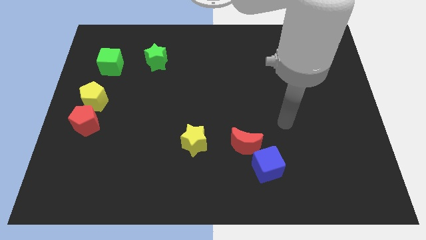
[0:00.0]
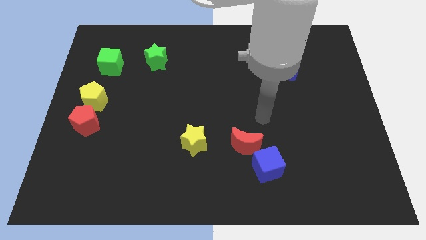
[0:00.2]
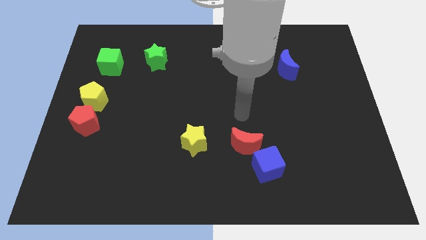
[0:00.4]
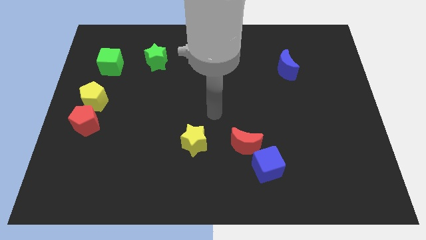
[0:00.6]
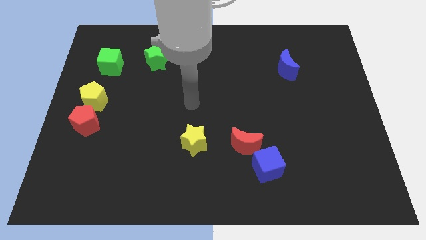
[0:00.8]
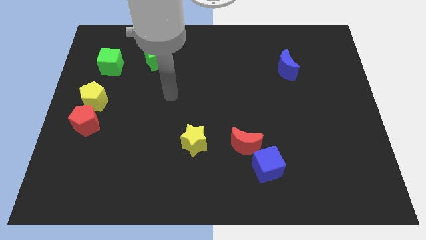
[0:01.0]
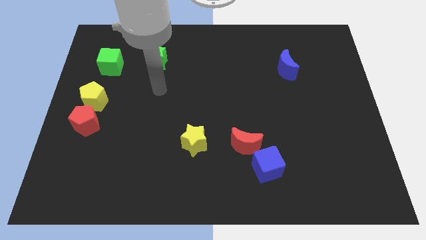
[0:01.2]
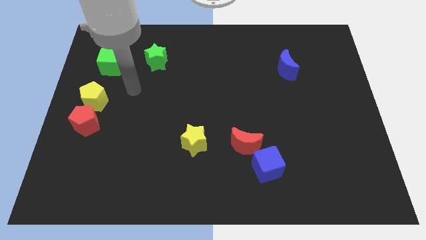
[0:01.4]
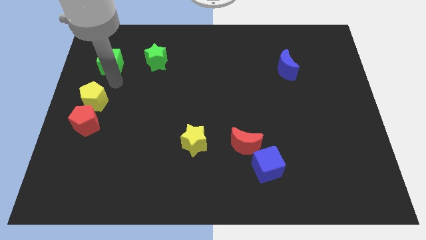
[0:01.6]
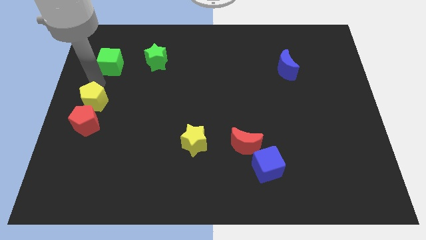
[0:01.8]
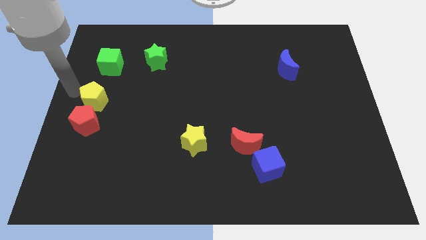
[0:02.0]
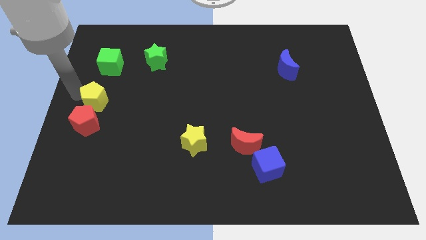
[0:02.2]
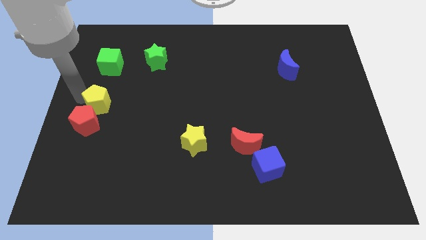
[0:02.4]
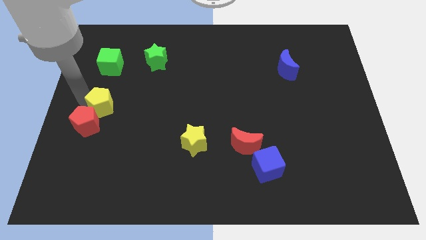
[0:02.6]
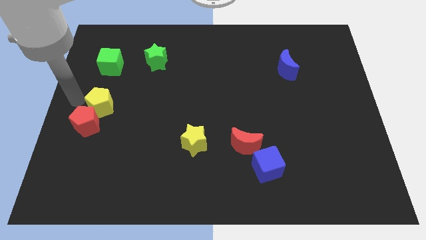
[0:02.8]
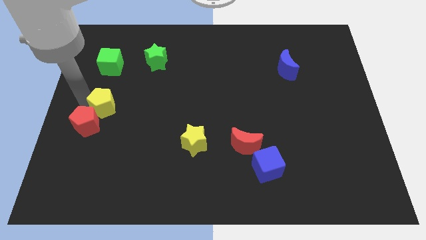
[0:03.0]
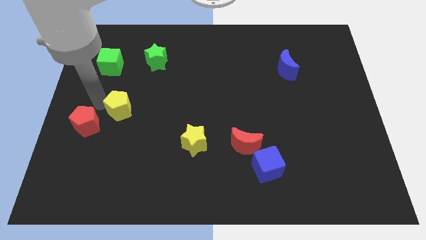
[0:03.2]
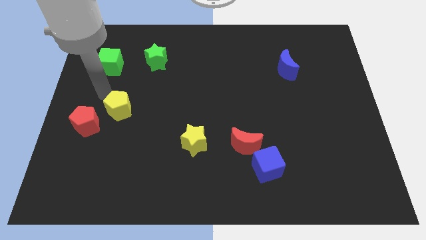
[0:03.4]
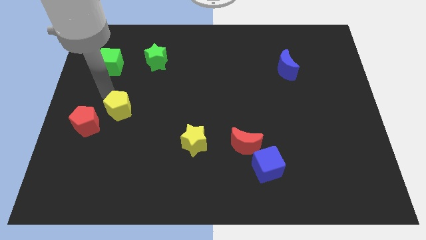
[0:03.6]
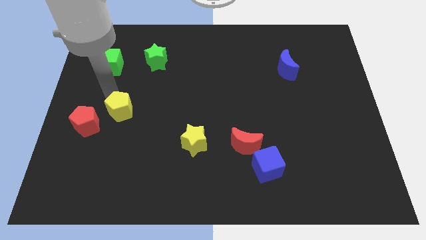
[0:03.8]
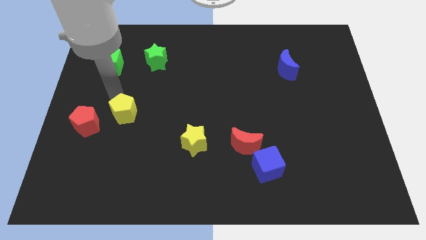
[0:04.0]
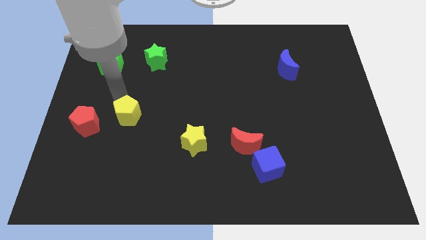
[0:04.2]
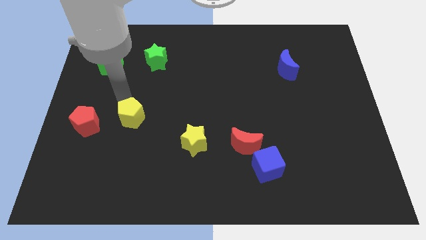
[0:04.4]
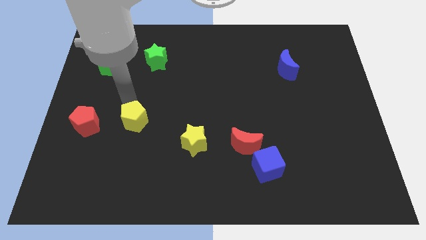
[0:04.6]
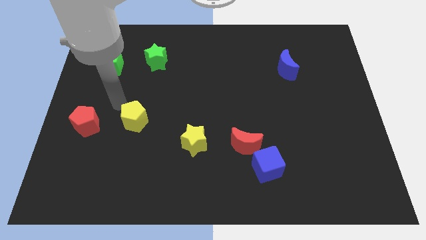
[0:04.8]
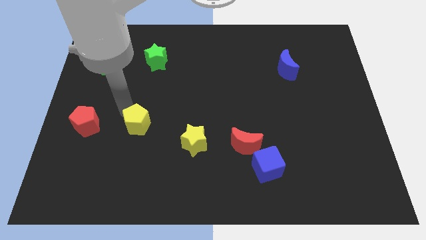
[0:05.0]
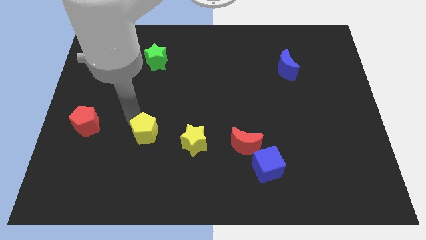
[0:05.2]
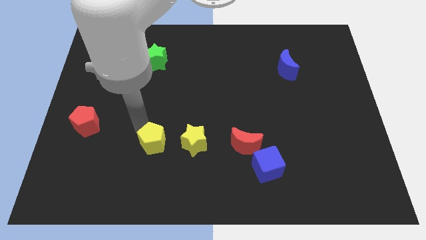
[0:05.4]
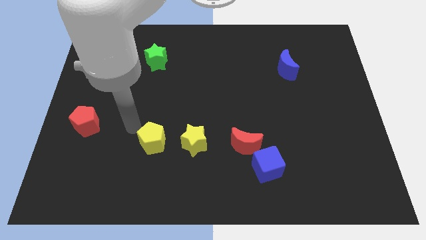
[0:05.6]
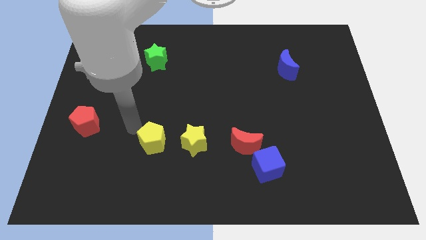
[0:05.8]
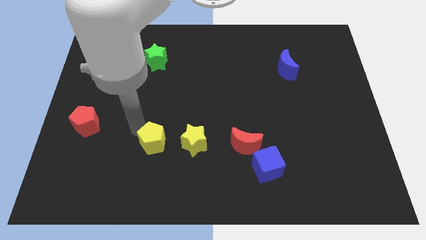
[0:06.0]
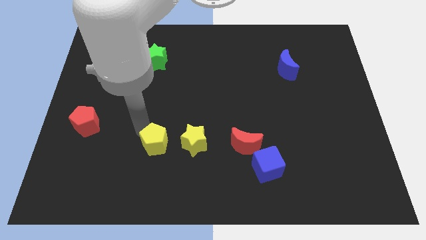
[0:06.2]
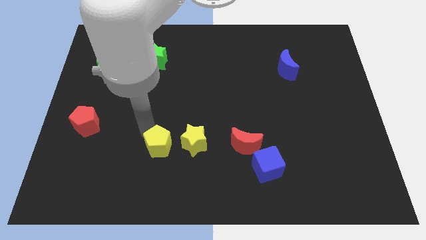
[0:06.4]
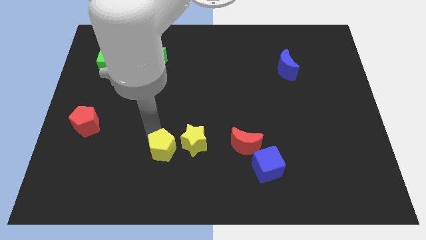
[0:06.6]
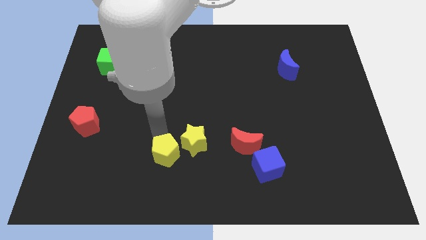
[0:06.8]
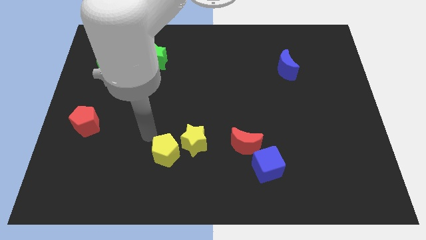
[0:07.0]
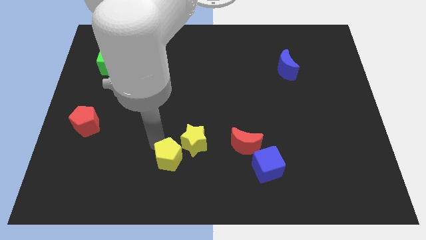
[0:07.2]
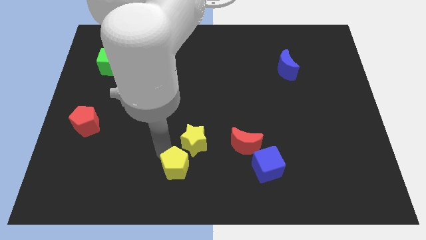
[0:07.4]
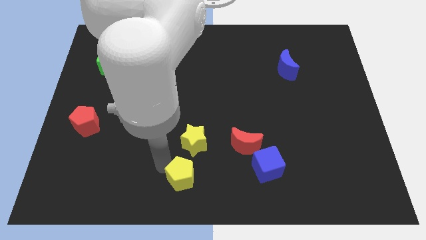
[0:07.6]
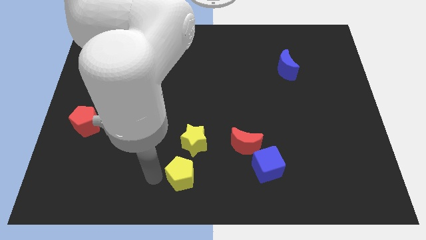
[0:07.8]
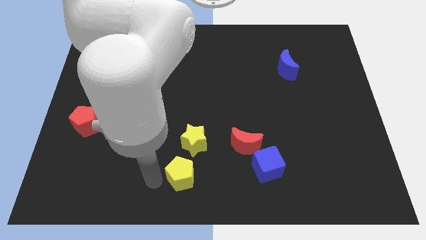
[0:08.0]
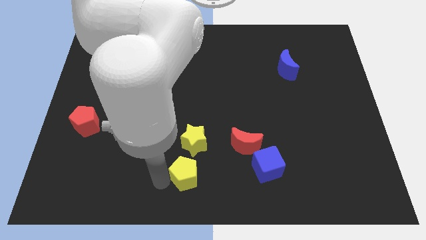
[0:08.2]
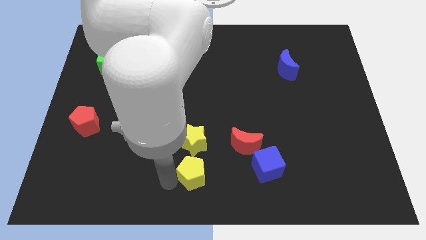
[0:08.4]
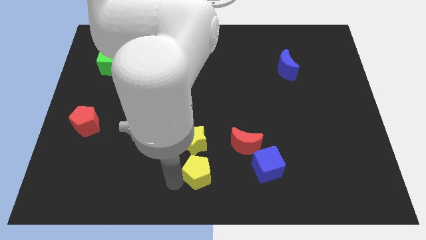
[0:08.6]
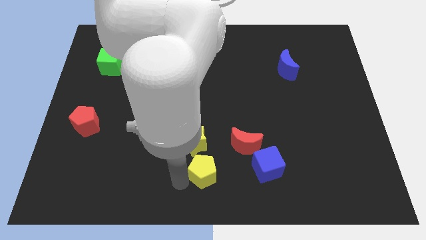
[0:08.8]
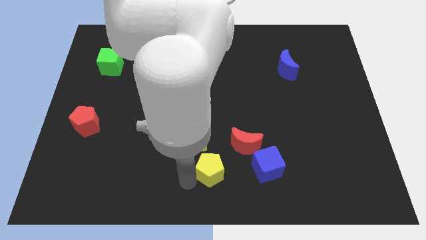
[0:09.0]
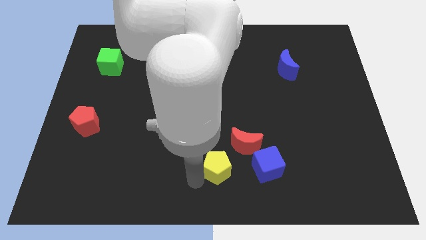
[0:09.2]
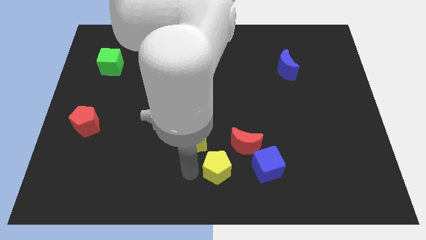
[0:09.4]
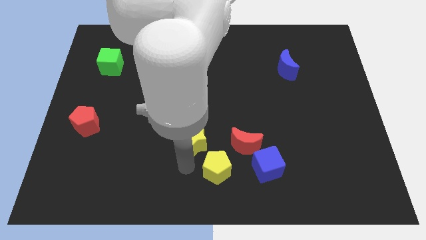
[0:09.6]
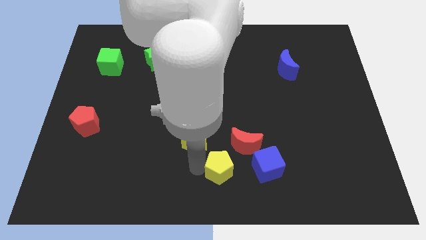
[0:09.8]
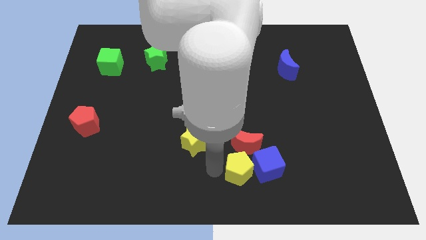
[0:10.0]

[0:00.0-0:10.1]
put the yellow pentagon towards the blue cube
